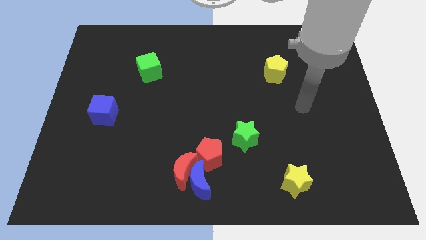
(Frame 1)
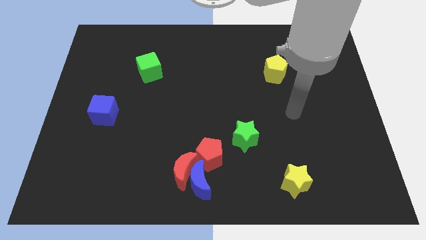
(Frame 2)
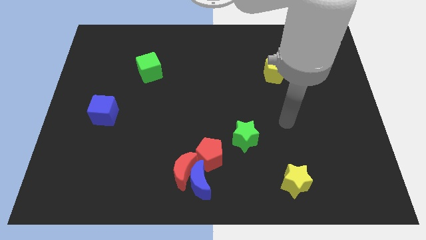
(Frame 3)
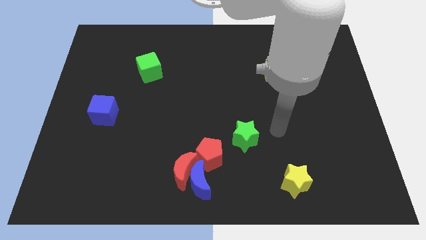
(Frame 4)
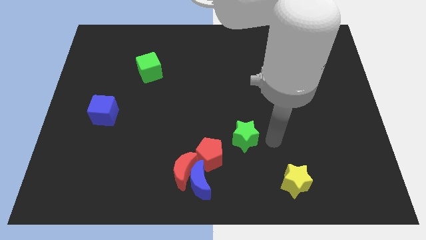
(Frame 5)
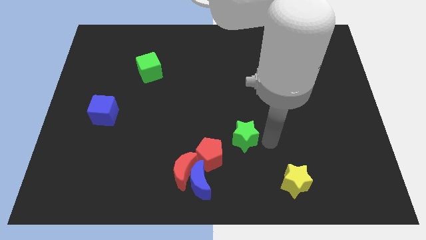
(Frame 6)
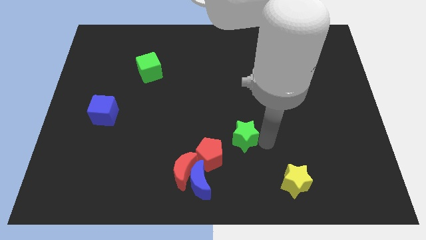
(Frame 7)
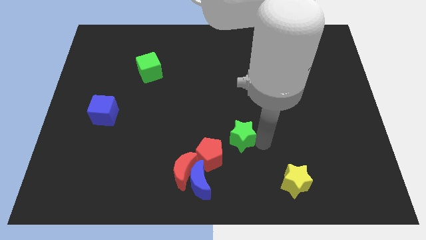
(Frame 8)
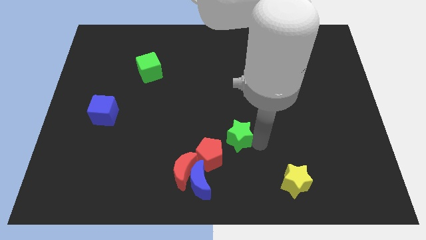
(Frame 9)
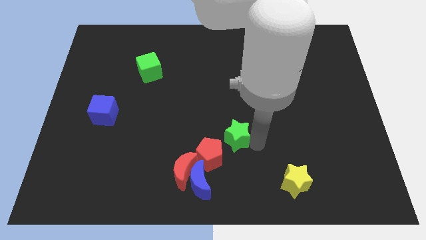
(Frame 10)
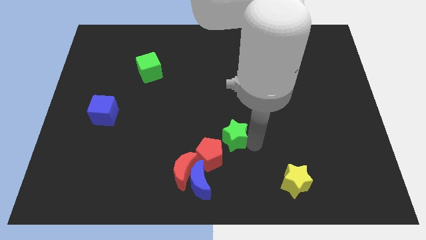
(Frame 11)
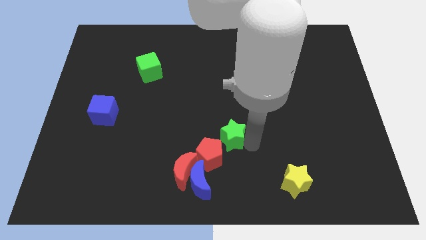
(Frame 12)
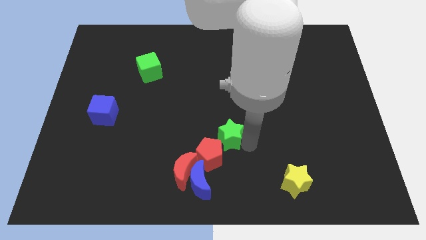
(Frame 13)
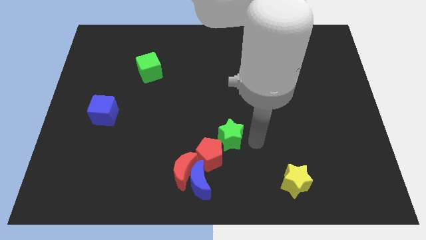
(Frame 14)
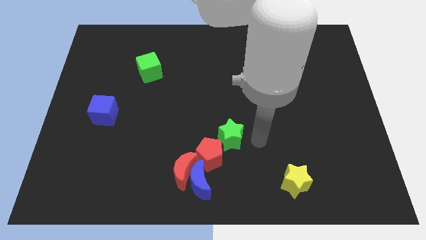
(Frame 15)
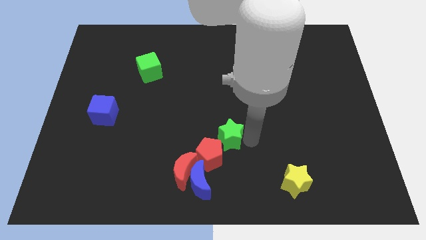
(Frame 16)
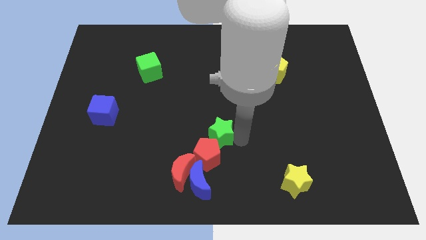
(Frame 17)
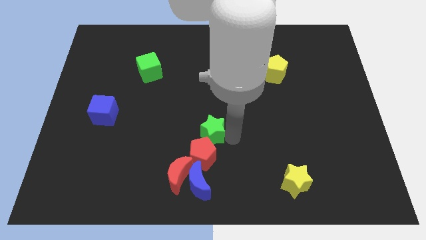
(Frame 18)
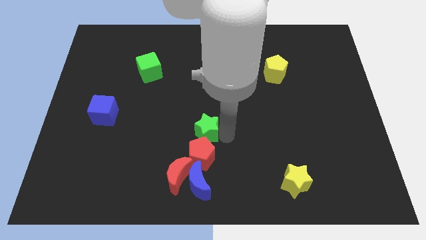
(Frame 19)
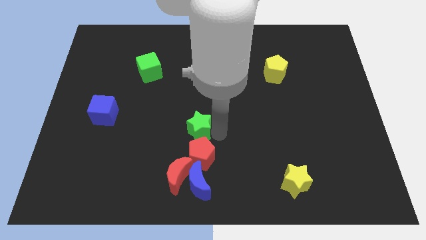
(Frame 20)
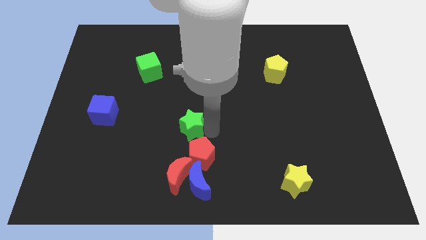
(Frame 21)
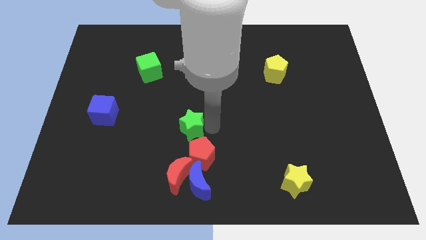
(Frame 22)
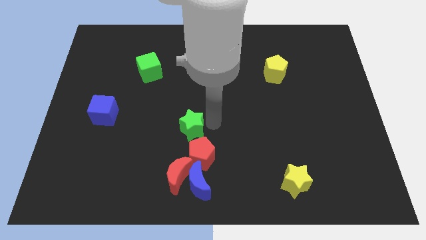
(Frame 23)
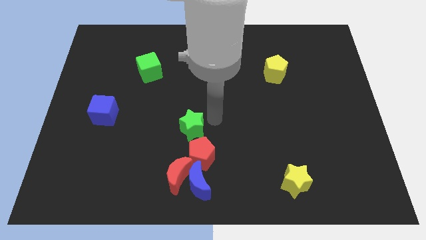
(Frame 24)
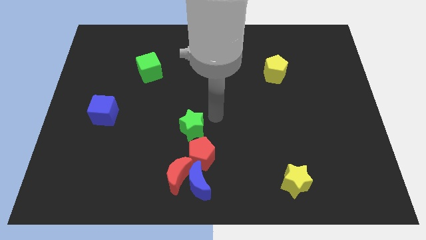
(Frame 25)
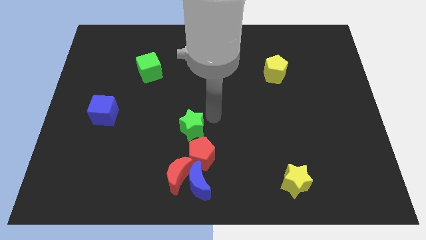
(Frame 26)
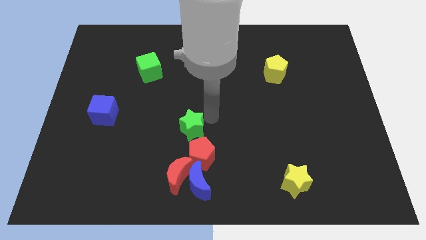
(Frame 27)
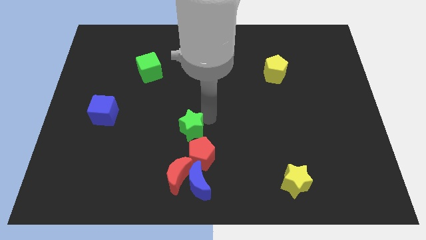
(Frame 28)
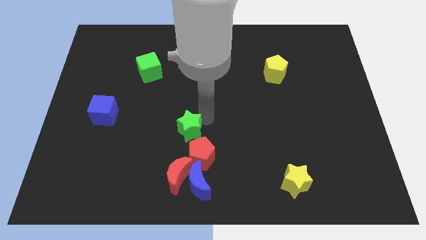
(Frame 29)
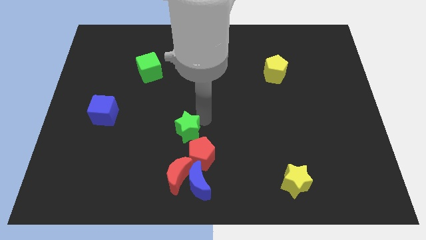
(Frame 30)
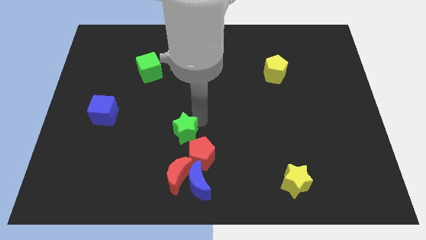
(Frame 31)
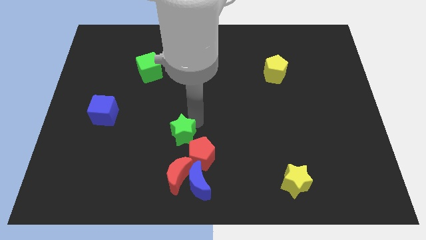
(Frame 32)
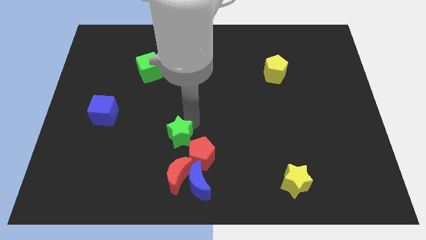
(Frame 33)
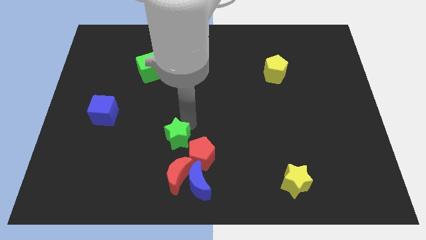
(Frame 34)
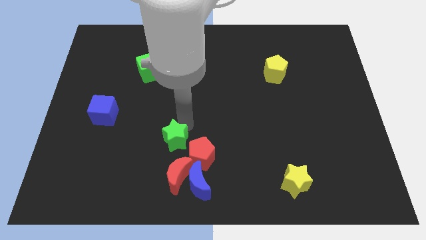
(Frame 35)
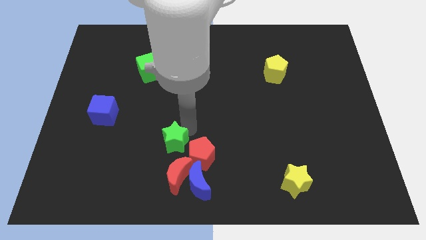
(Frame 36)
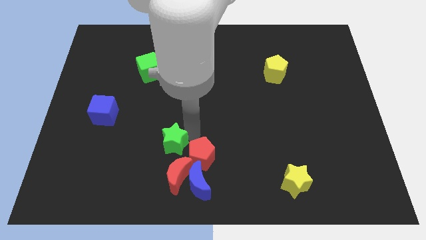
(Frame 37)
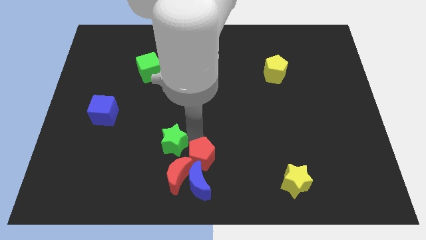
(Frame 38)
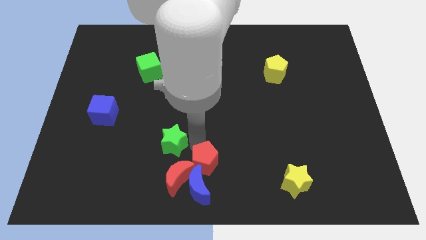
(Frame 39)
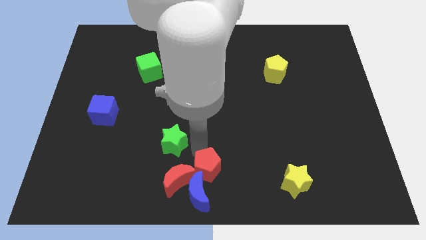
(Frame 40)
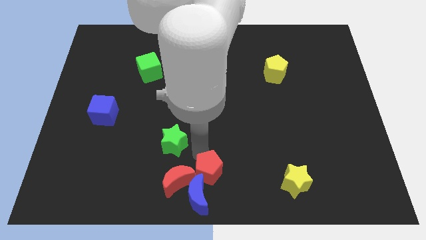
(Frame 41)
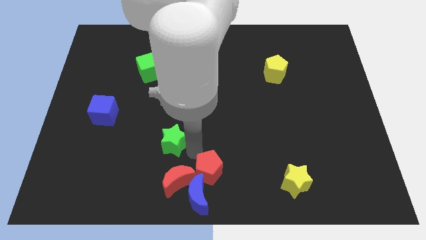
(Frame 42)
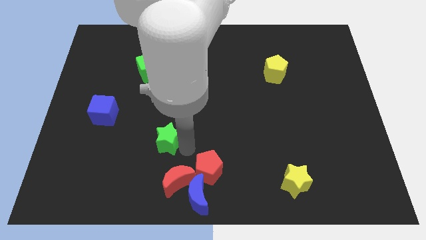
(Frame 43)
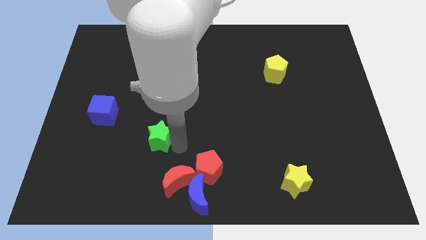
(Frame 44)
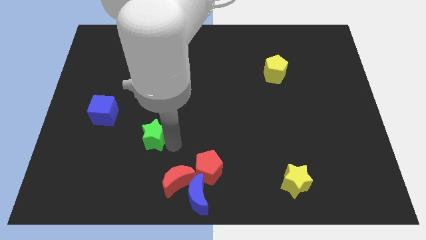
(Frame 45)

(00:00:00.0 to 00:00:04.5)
push the green star to the left

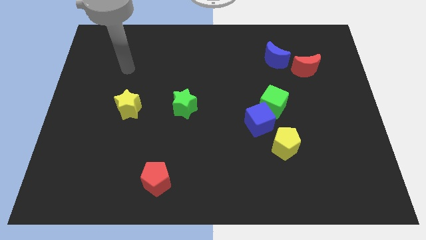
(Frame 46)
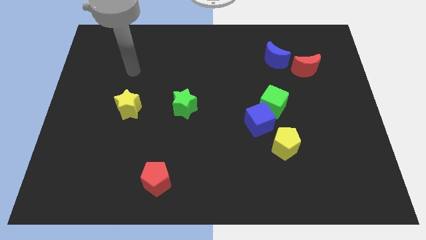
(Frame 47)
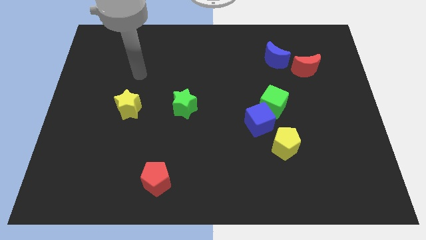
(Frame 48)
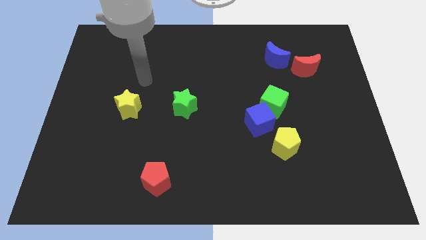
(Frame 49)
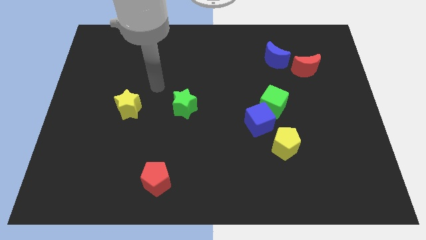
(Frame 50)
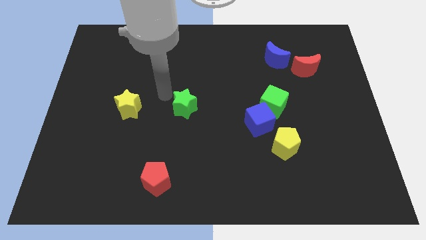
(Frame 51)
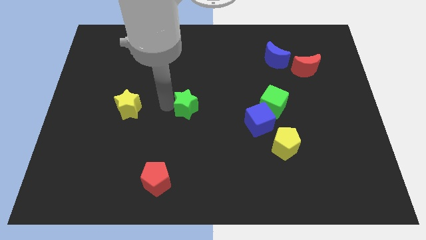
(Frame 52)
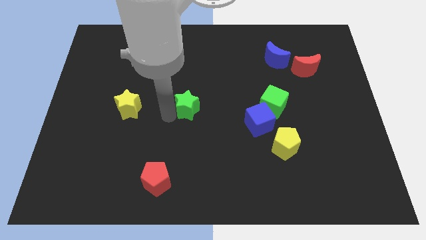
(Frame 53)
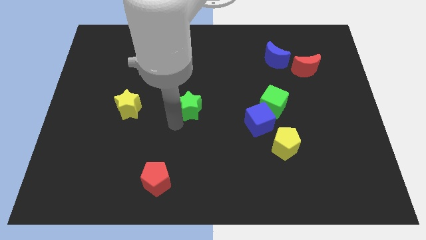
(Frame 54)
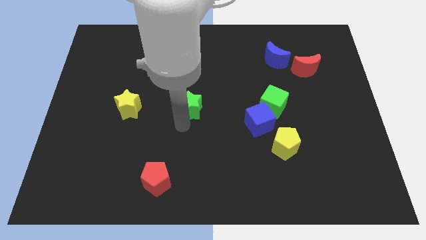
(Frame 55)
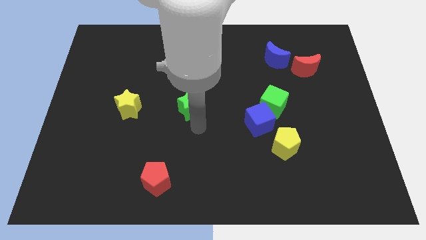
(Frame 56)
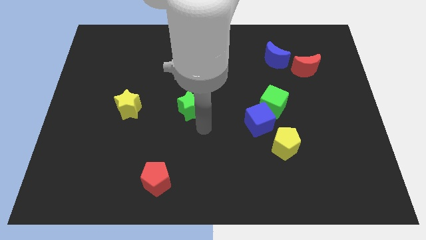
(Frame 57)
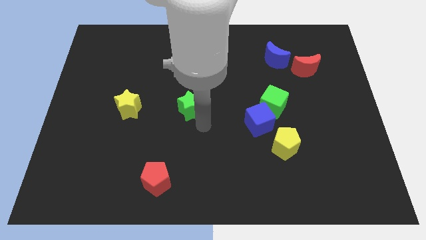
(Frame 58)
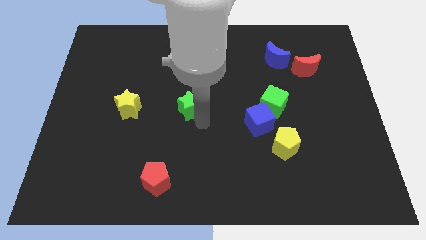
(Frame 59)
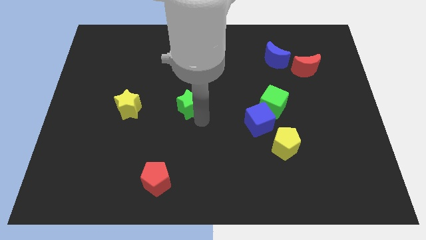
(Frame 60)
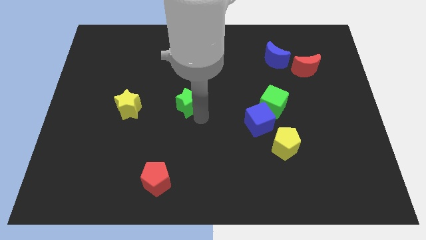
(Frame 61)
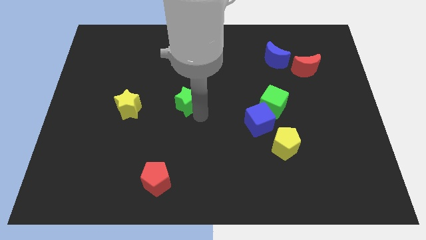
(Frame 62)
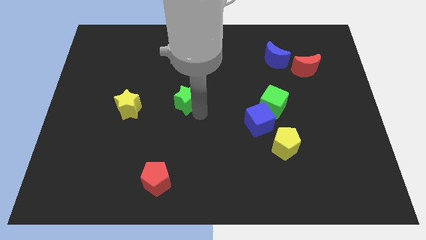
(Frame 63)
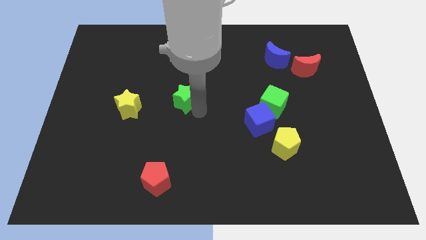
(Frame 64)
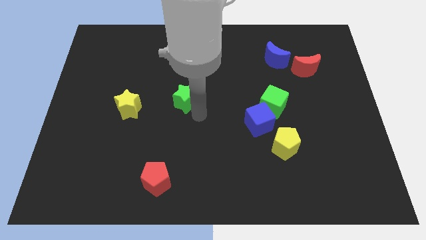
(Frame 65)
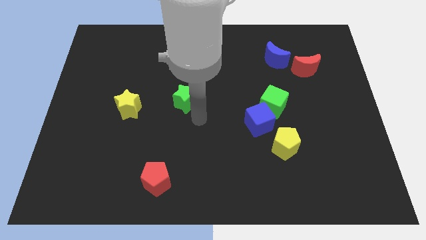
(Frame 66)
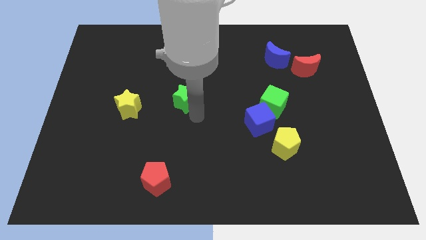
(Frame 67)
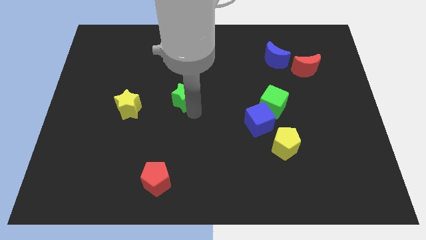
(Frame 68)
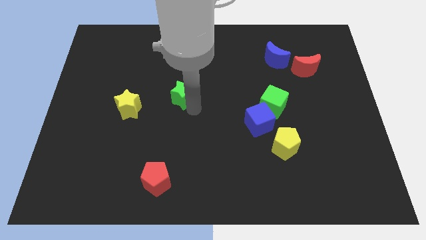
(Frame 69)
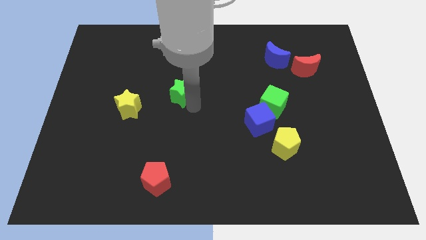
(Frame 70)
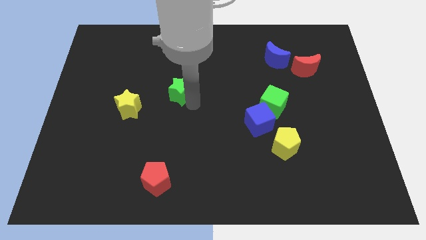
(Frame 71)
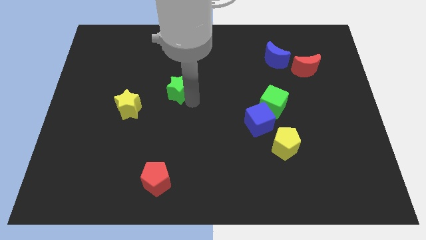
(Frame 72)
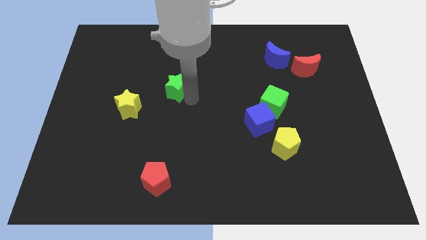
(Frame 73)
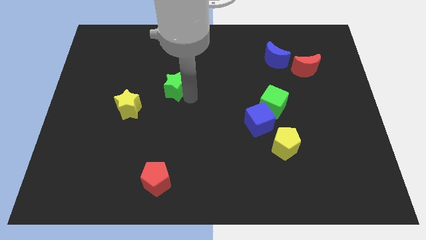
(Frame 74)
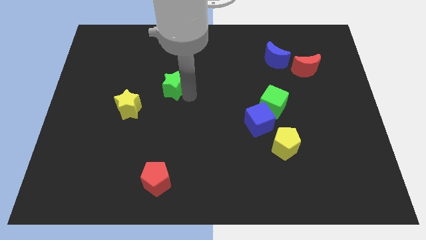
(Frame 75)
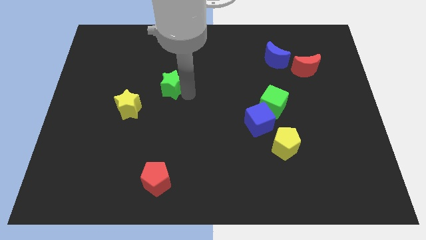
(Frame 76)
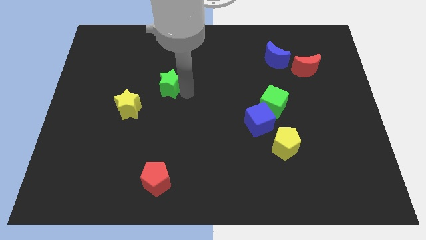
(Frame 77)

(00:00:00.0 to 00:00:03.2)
slightly slide the green star upwards and then left

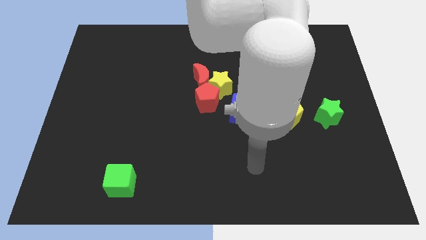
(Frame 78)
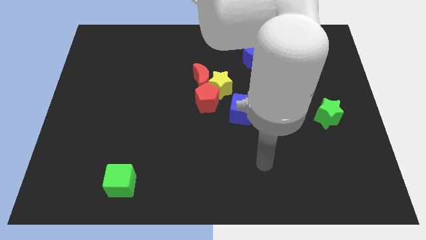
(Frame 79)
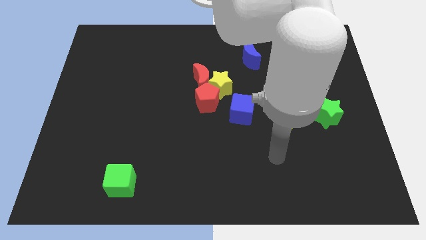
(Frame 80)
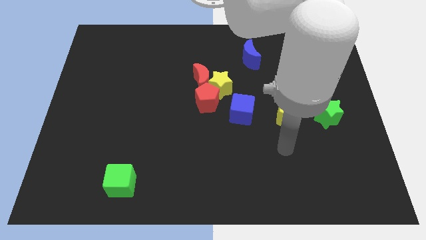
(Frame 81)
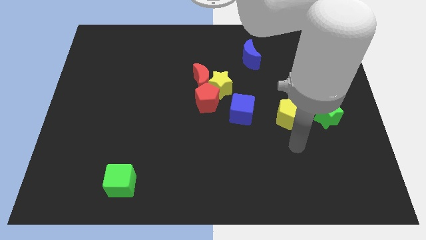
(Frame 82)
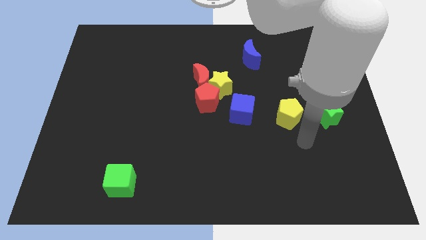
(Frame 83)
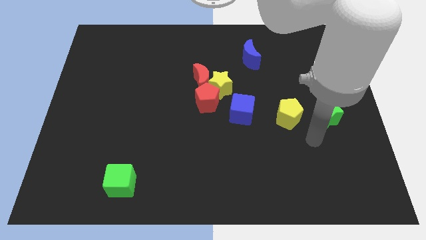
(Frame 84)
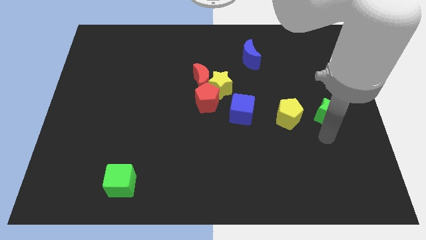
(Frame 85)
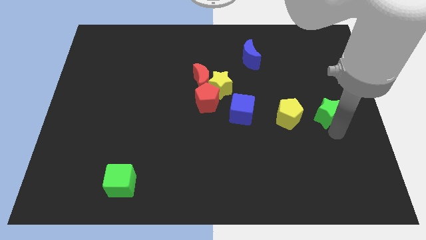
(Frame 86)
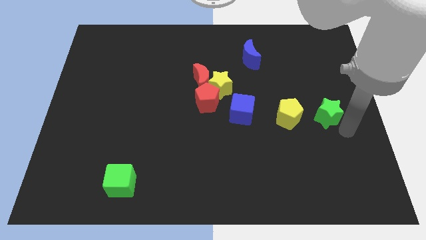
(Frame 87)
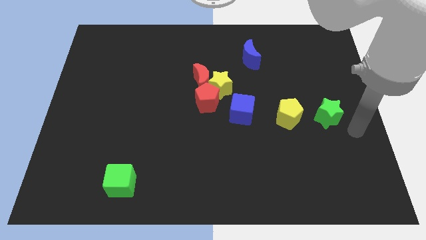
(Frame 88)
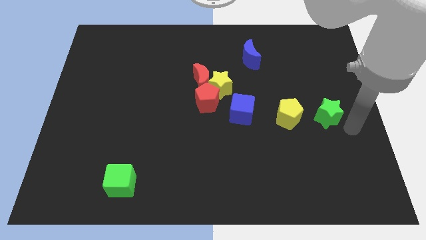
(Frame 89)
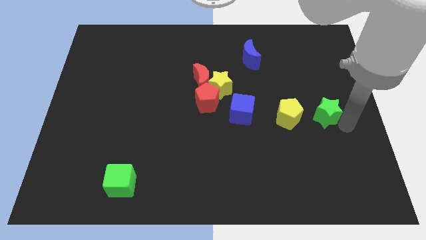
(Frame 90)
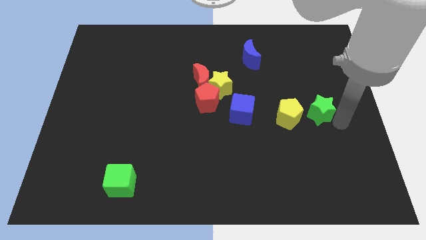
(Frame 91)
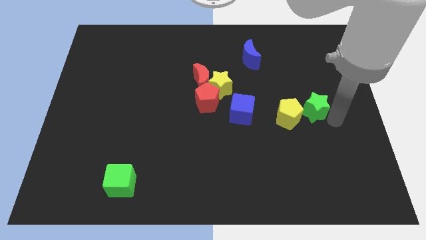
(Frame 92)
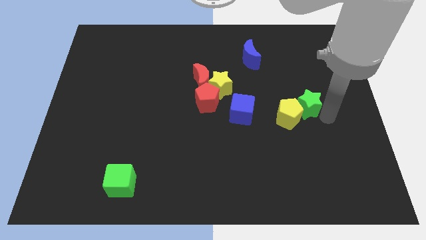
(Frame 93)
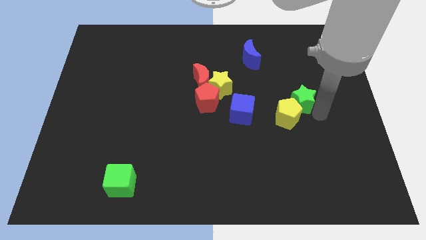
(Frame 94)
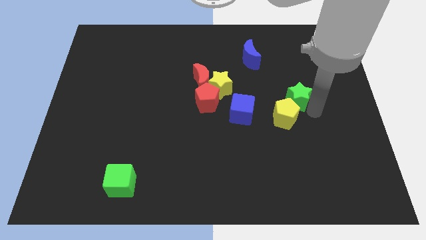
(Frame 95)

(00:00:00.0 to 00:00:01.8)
slightly move the green star upwards and left diagonally
